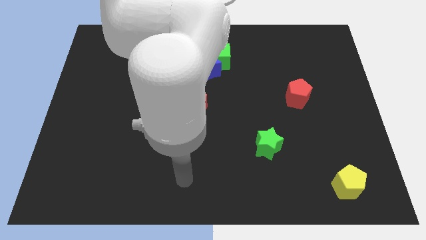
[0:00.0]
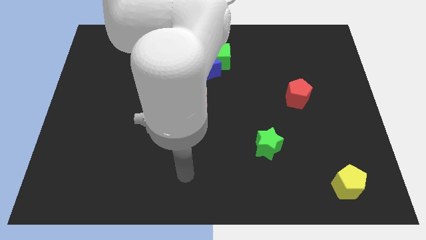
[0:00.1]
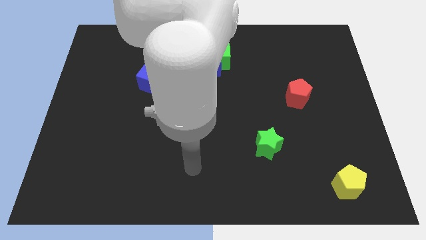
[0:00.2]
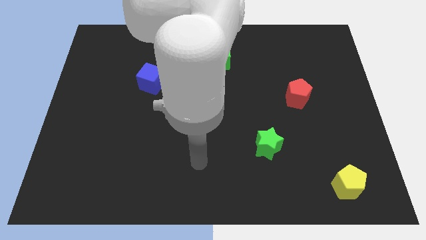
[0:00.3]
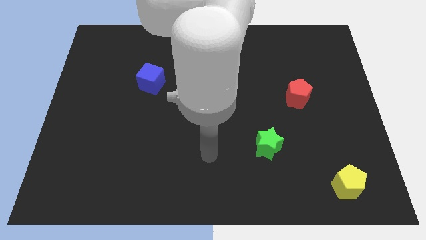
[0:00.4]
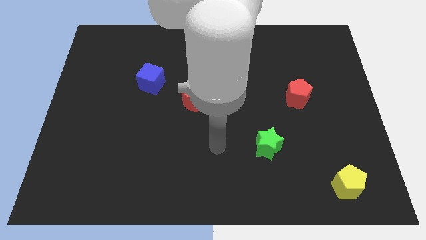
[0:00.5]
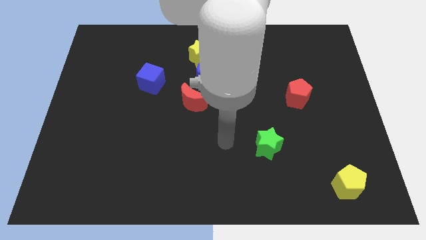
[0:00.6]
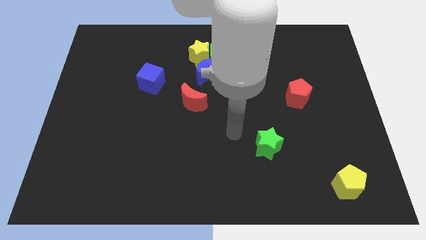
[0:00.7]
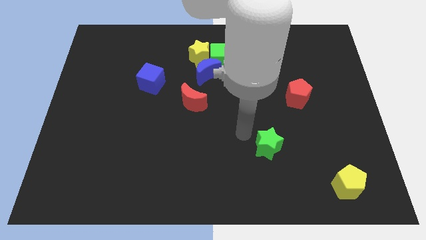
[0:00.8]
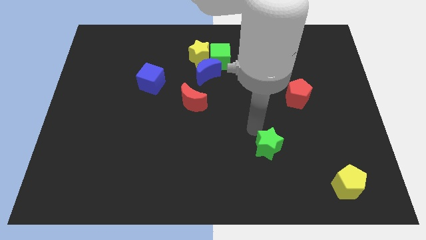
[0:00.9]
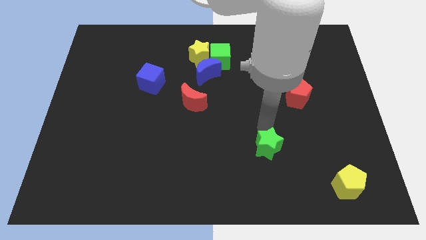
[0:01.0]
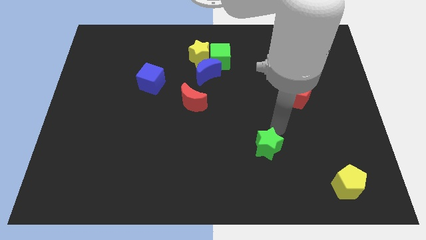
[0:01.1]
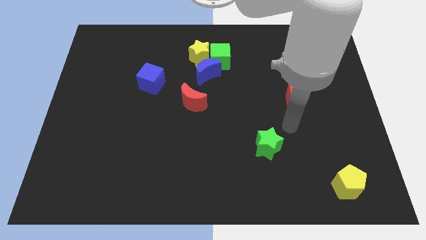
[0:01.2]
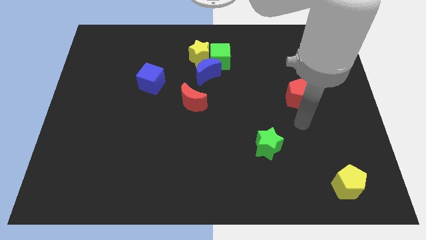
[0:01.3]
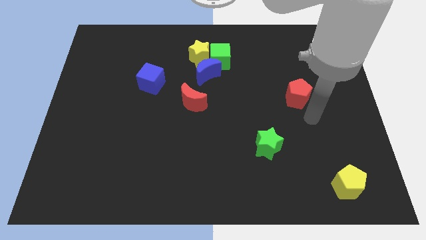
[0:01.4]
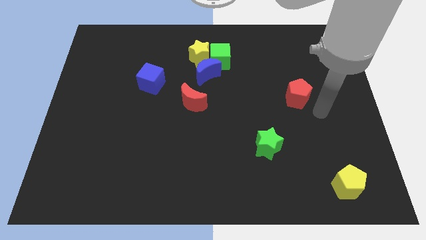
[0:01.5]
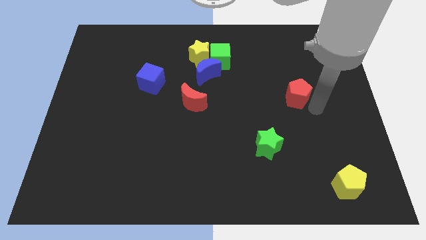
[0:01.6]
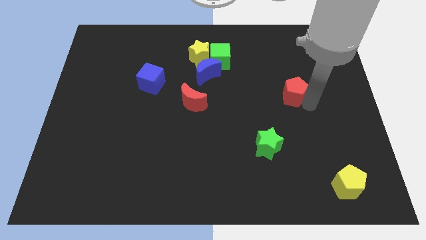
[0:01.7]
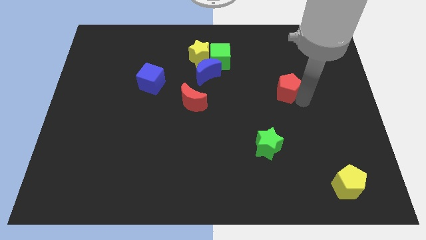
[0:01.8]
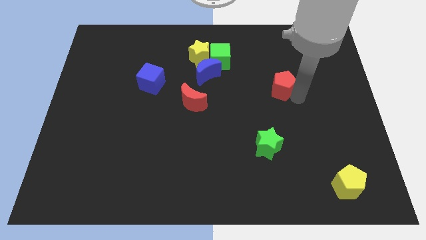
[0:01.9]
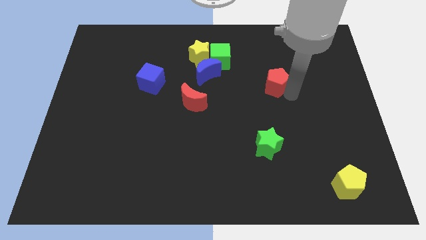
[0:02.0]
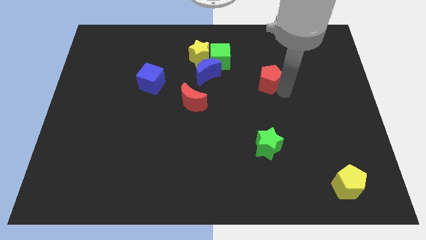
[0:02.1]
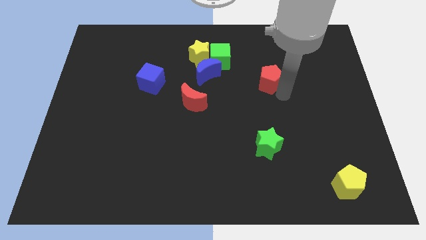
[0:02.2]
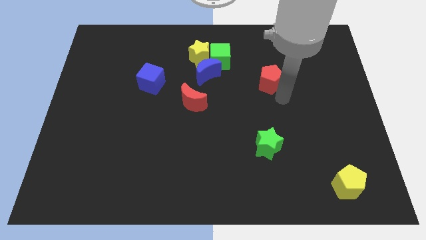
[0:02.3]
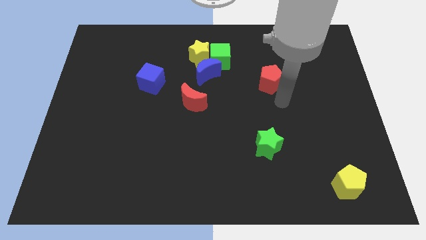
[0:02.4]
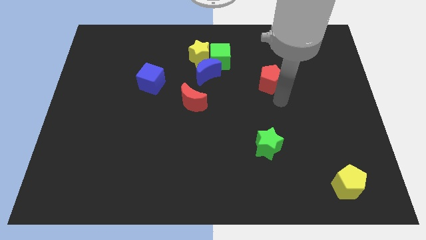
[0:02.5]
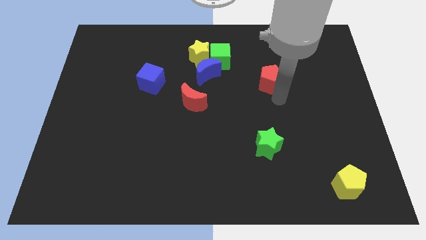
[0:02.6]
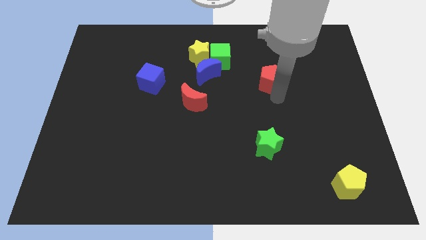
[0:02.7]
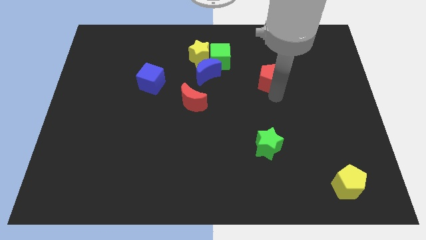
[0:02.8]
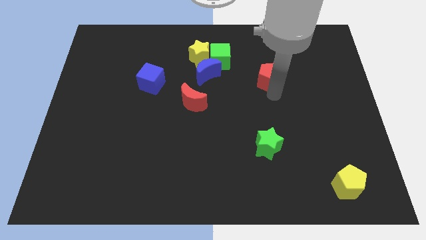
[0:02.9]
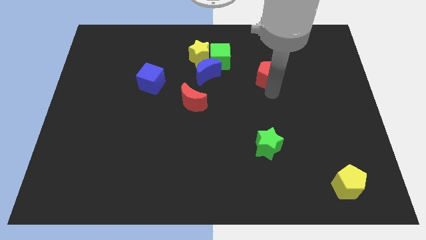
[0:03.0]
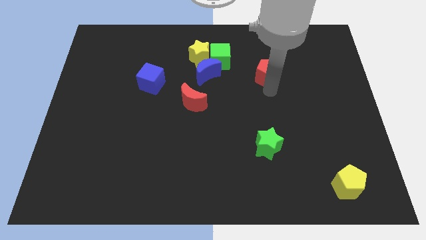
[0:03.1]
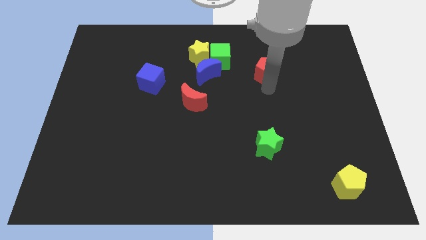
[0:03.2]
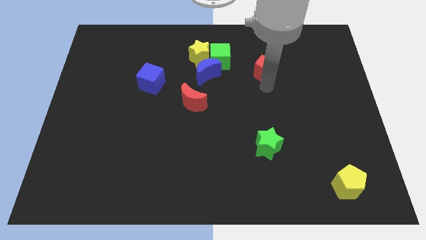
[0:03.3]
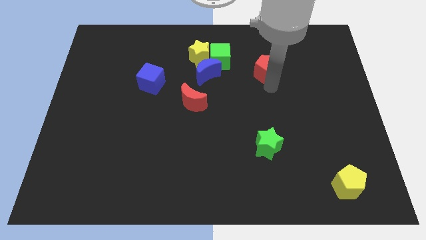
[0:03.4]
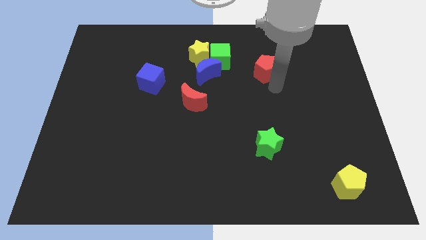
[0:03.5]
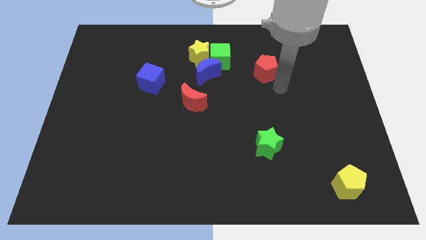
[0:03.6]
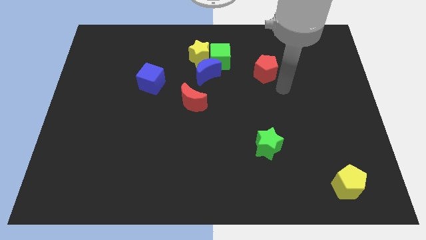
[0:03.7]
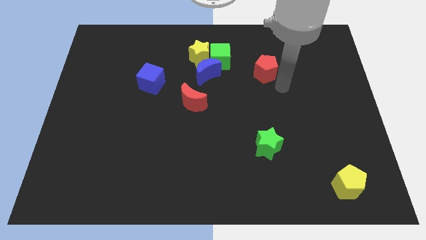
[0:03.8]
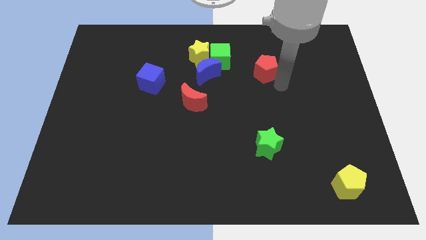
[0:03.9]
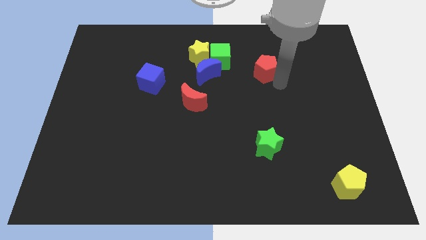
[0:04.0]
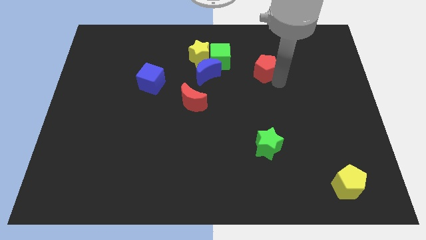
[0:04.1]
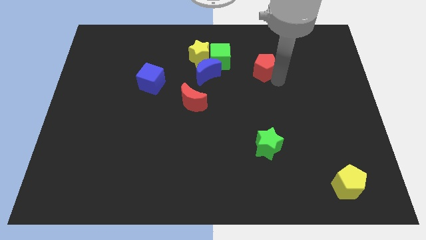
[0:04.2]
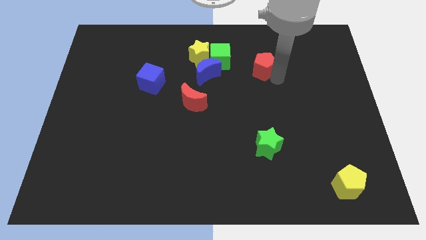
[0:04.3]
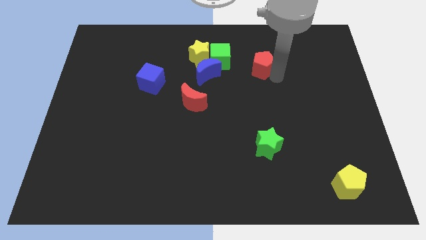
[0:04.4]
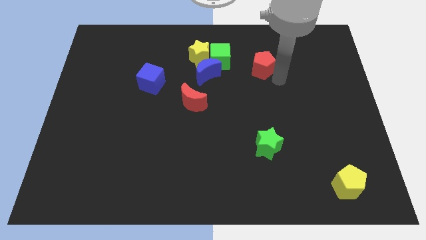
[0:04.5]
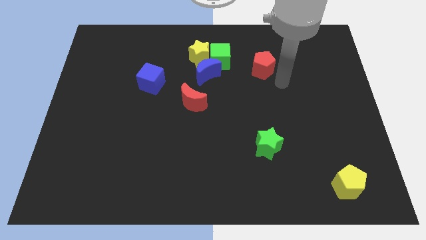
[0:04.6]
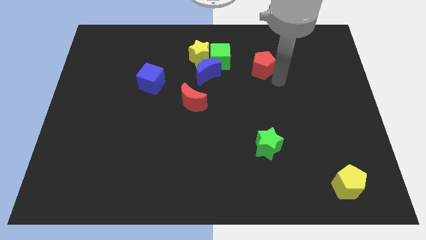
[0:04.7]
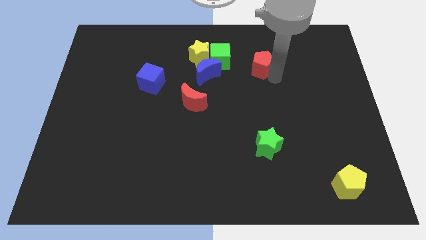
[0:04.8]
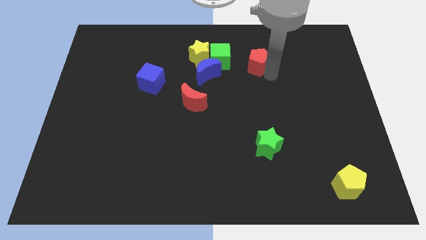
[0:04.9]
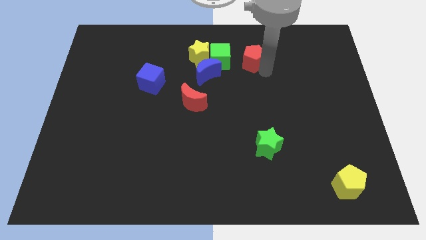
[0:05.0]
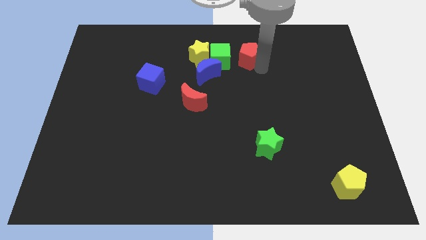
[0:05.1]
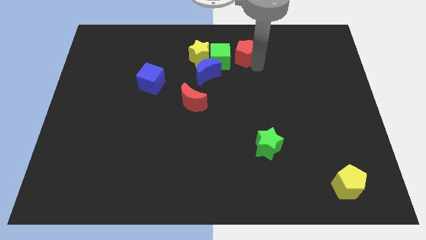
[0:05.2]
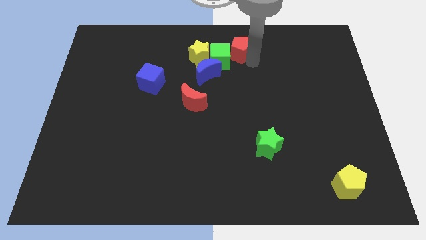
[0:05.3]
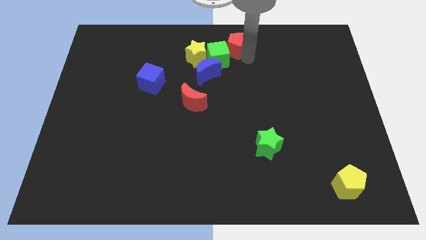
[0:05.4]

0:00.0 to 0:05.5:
push the red pentagon to the towards your base

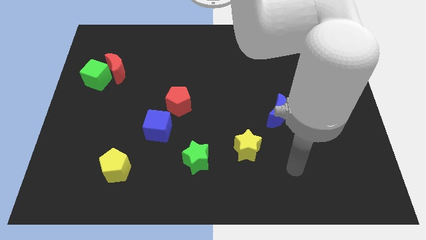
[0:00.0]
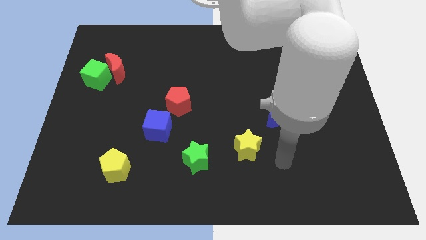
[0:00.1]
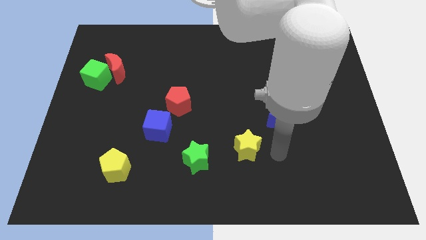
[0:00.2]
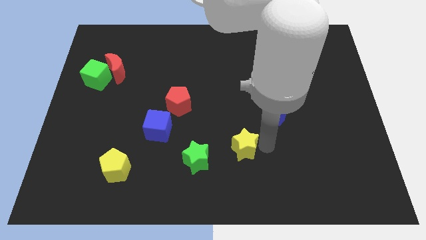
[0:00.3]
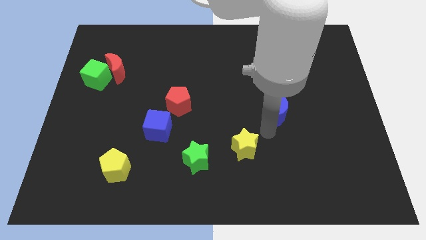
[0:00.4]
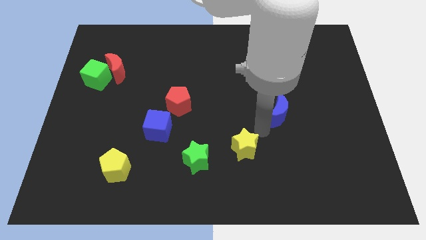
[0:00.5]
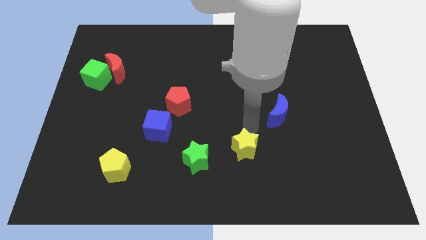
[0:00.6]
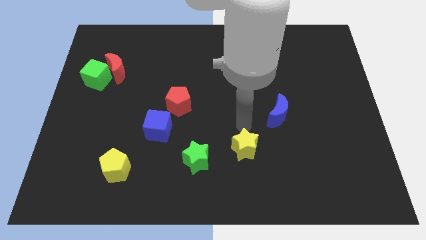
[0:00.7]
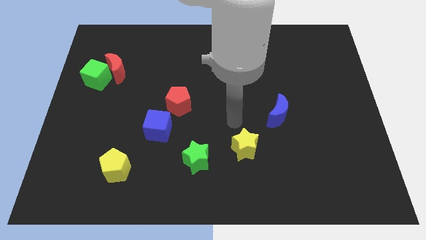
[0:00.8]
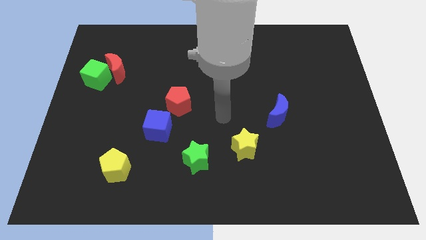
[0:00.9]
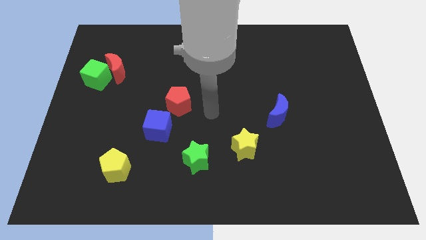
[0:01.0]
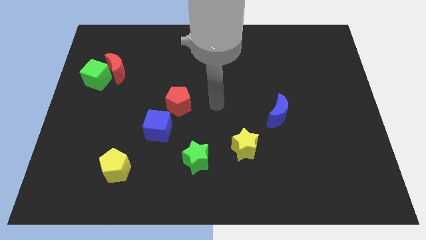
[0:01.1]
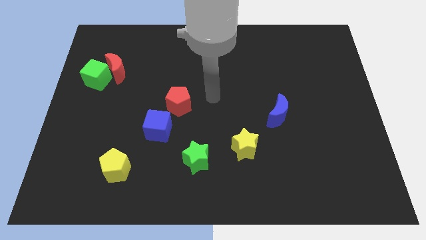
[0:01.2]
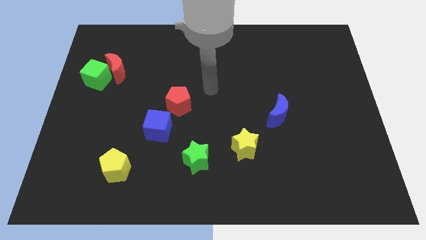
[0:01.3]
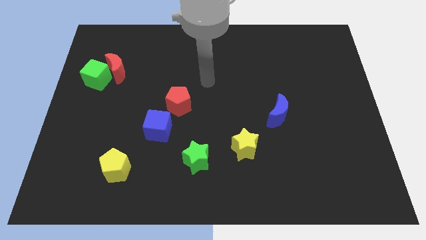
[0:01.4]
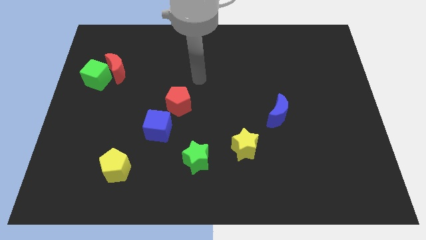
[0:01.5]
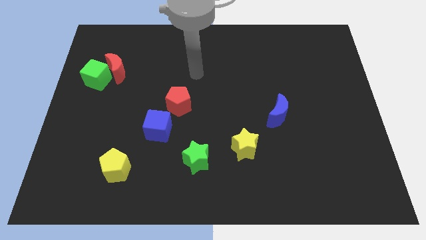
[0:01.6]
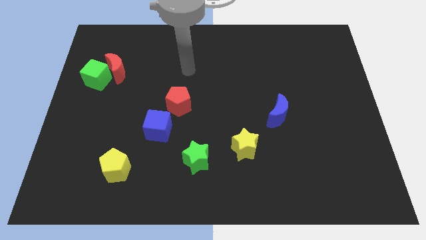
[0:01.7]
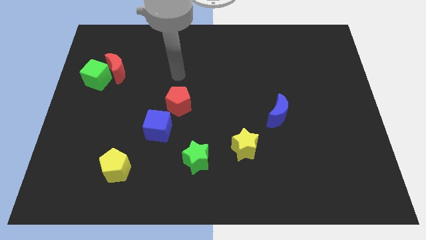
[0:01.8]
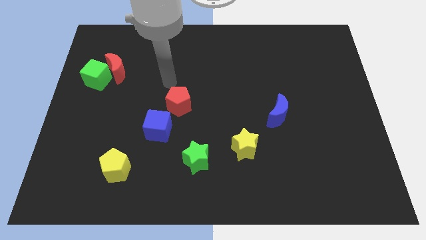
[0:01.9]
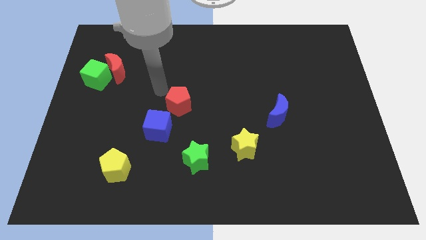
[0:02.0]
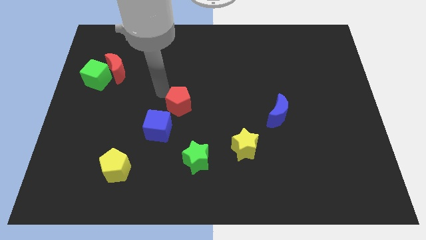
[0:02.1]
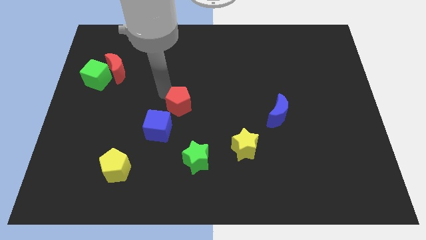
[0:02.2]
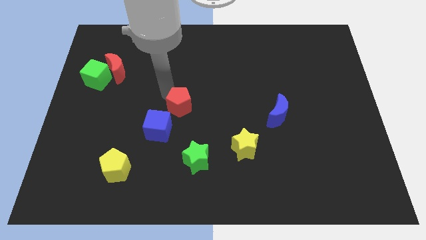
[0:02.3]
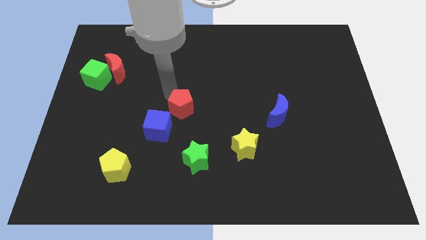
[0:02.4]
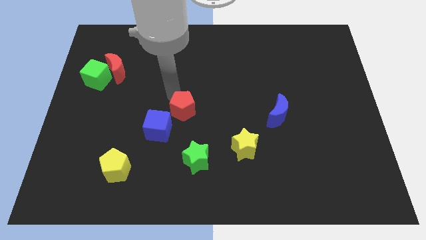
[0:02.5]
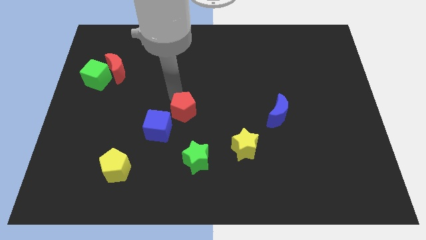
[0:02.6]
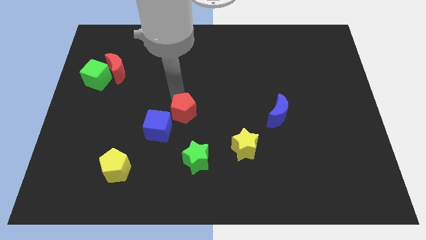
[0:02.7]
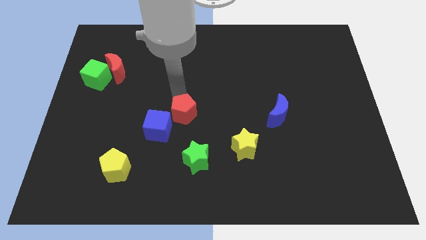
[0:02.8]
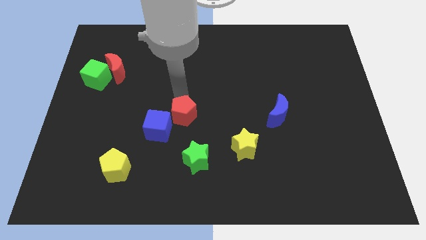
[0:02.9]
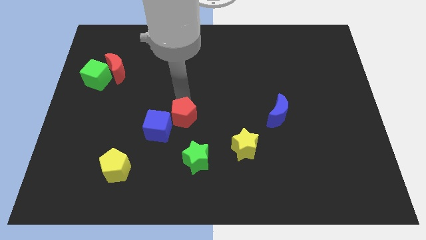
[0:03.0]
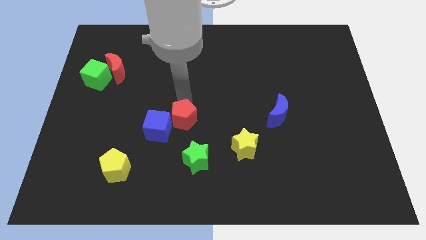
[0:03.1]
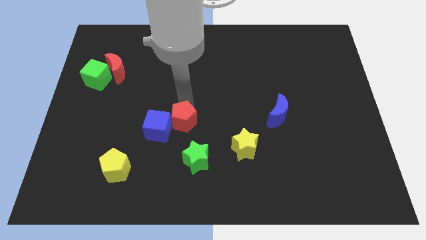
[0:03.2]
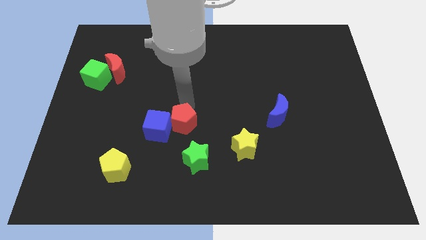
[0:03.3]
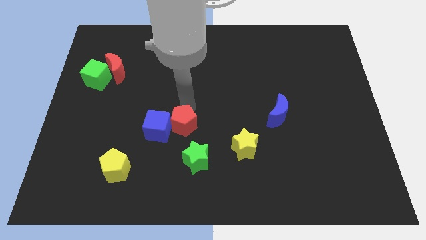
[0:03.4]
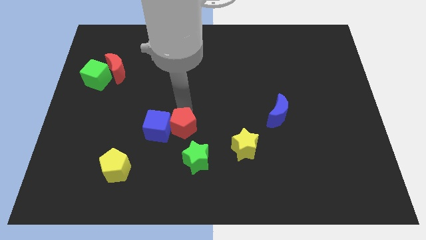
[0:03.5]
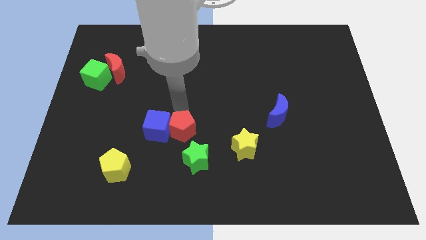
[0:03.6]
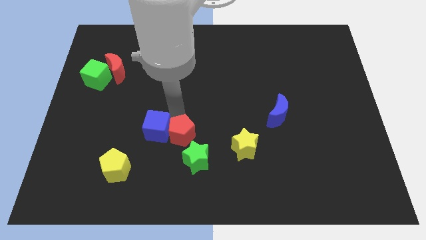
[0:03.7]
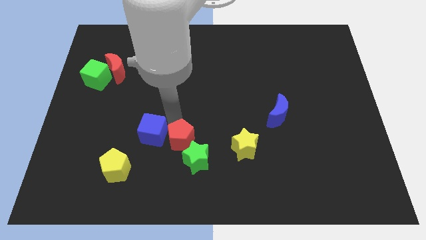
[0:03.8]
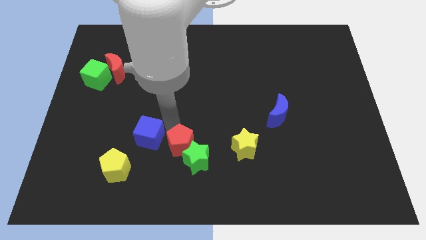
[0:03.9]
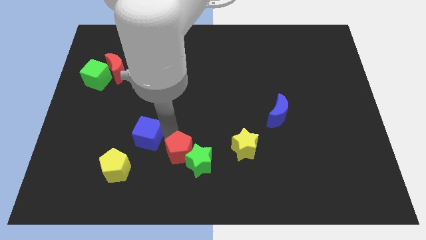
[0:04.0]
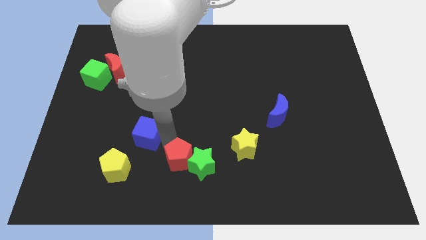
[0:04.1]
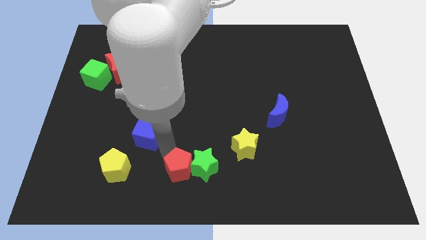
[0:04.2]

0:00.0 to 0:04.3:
put the red pentagon to the bottom side
